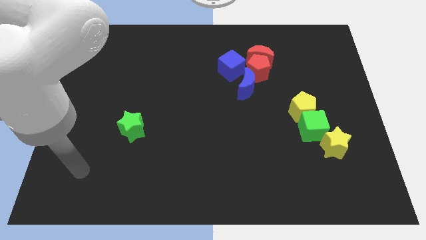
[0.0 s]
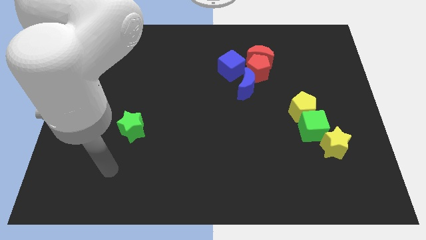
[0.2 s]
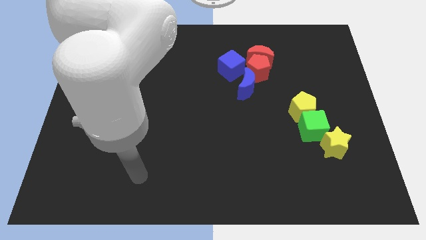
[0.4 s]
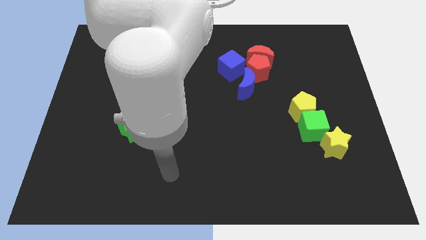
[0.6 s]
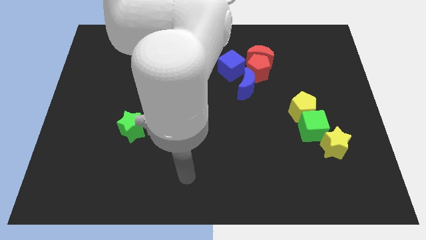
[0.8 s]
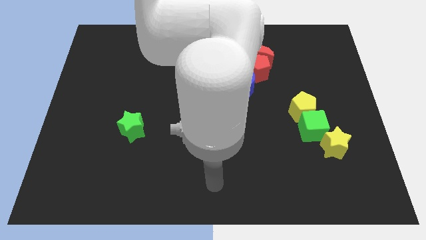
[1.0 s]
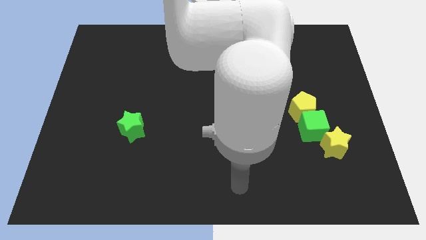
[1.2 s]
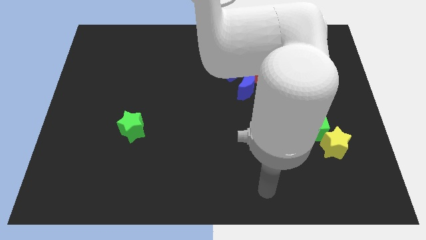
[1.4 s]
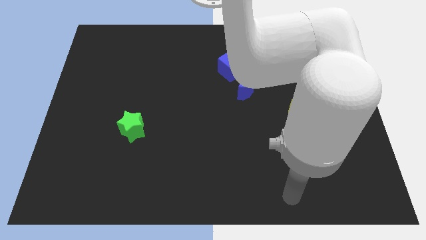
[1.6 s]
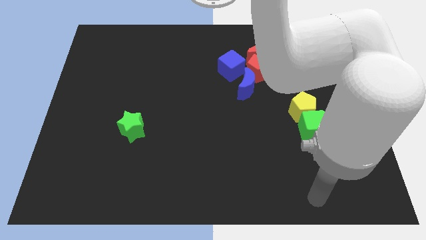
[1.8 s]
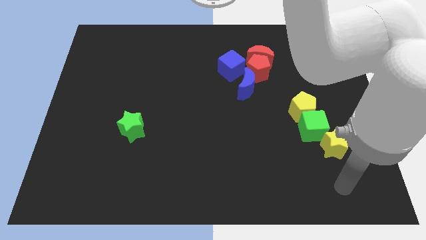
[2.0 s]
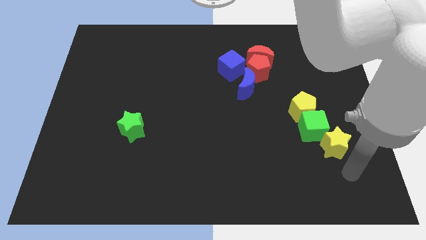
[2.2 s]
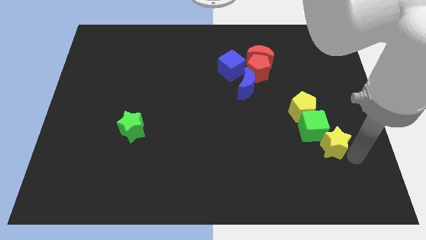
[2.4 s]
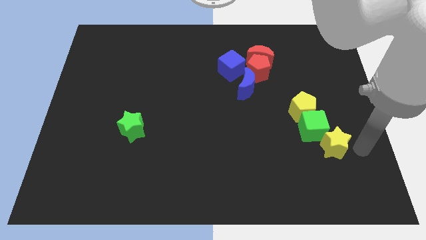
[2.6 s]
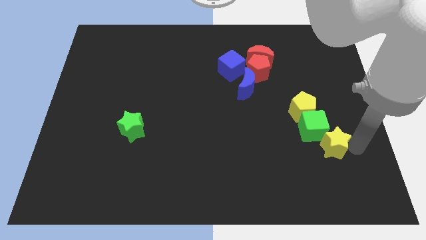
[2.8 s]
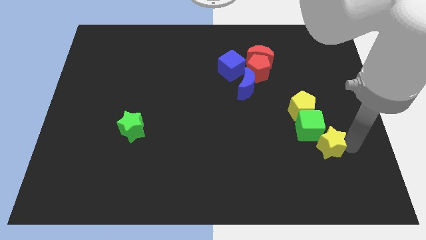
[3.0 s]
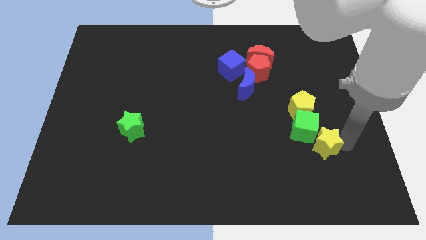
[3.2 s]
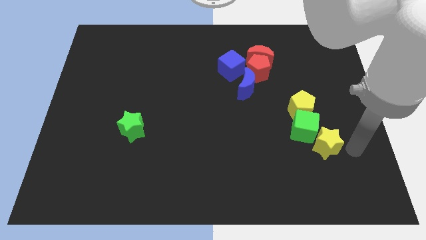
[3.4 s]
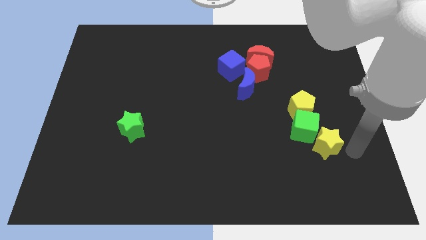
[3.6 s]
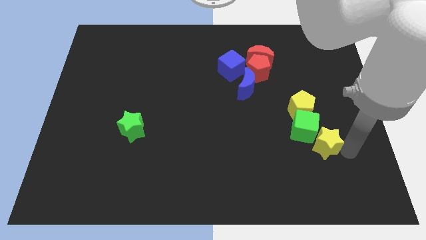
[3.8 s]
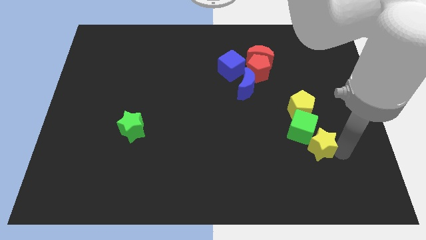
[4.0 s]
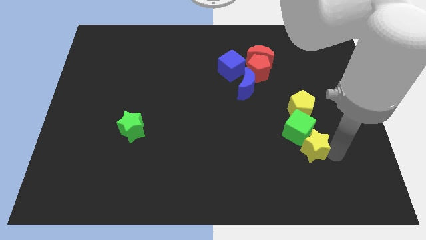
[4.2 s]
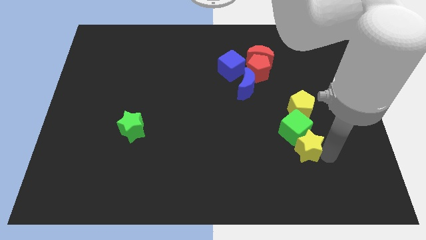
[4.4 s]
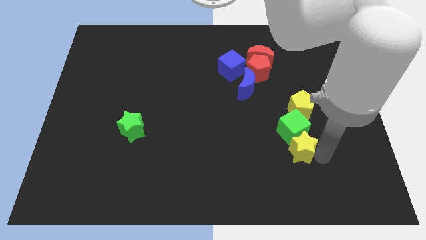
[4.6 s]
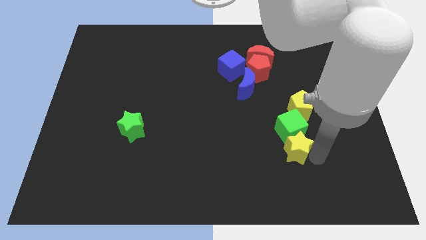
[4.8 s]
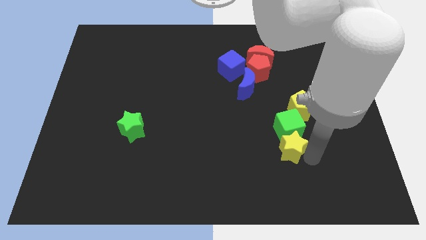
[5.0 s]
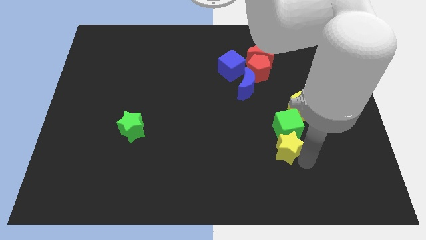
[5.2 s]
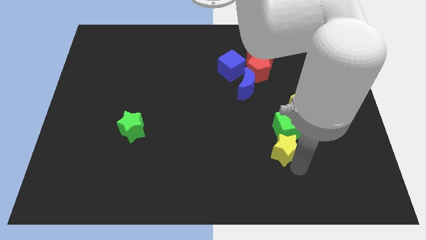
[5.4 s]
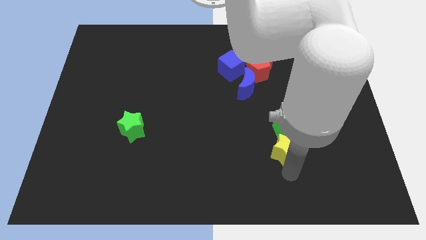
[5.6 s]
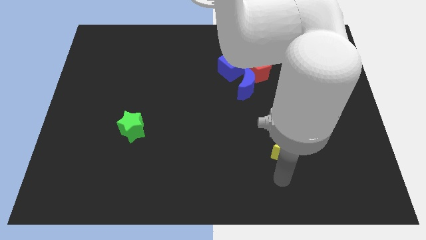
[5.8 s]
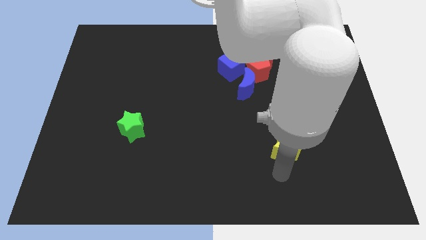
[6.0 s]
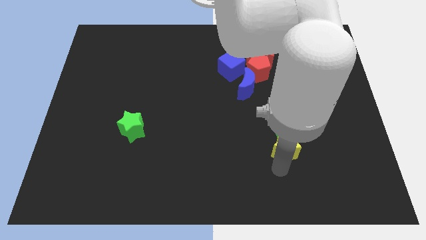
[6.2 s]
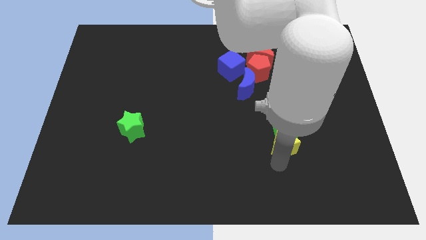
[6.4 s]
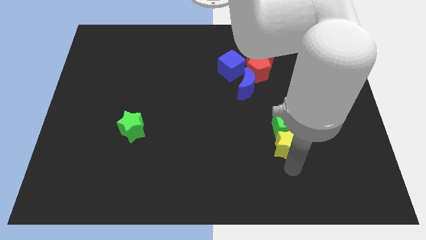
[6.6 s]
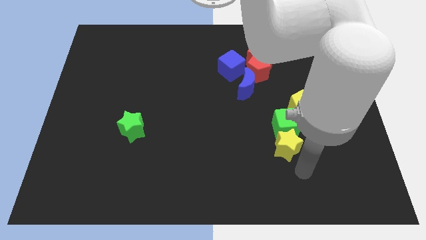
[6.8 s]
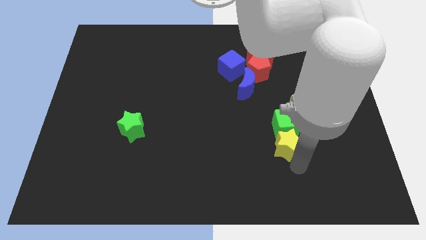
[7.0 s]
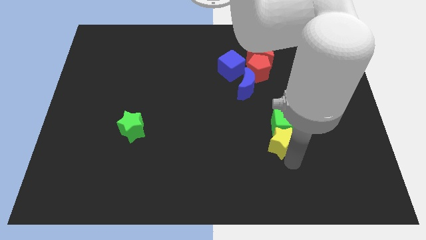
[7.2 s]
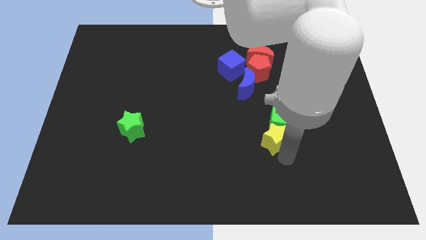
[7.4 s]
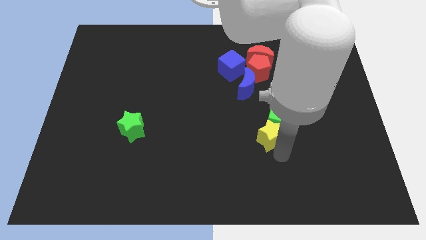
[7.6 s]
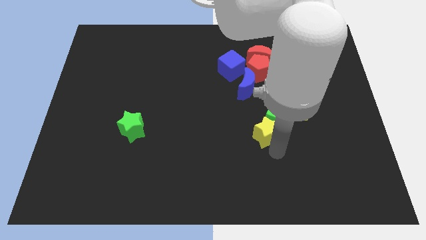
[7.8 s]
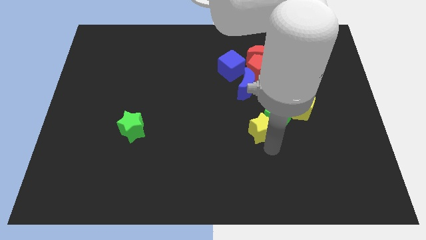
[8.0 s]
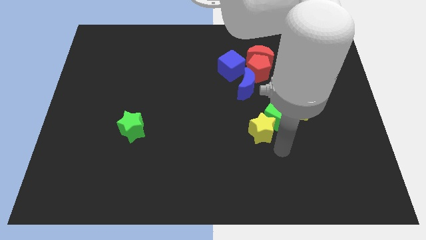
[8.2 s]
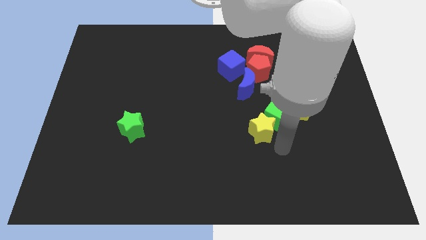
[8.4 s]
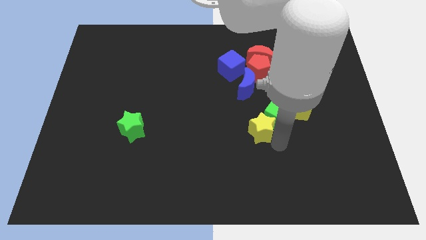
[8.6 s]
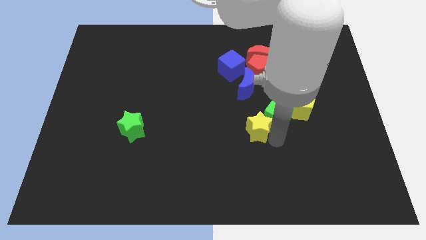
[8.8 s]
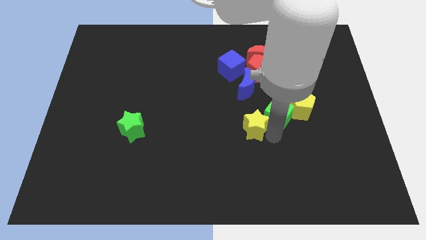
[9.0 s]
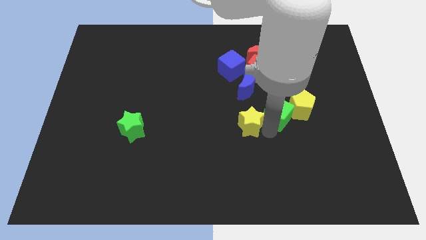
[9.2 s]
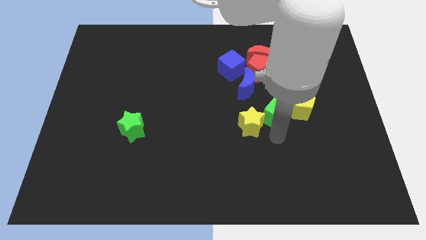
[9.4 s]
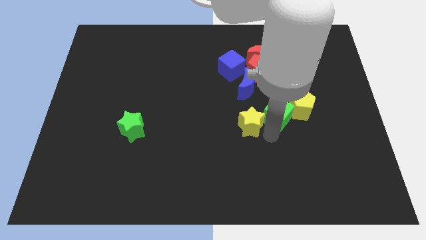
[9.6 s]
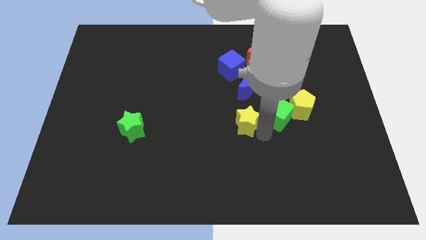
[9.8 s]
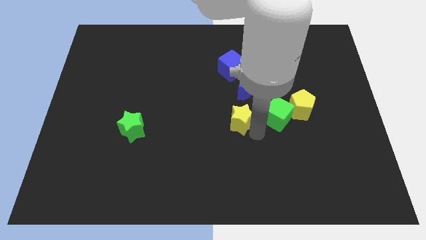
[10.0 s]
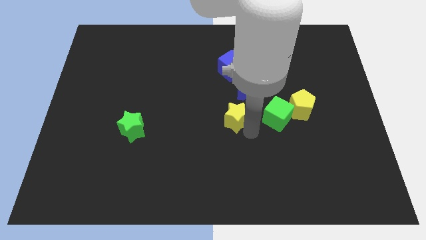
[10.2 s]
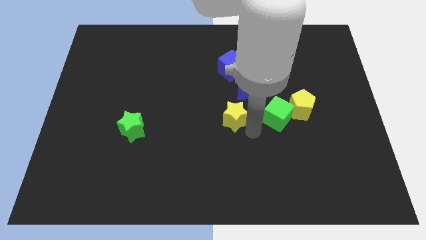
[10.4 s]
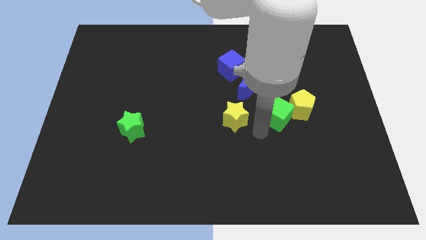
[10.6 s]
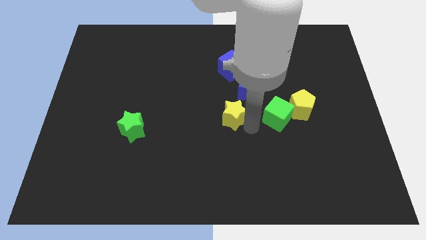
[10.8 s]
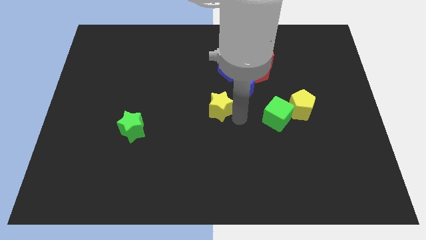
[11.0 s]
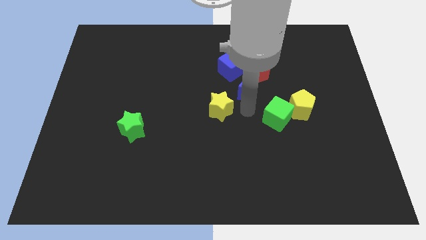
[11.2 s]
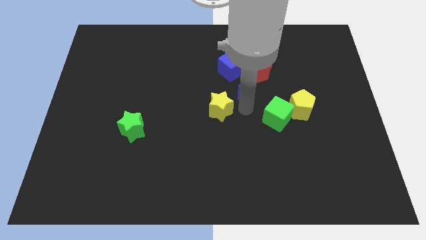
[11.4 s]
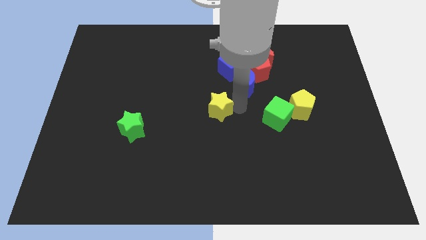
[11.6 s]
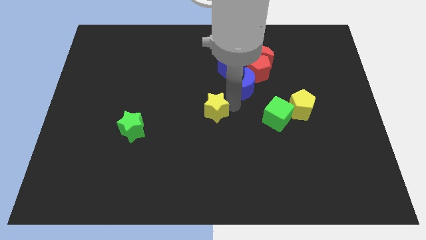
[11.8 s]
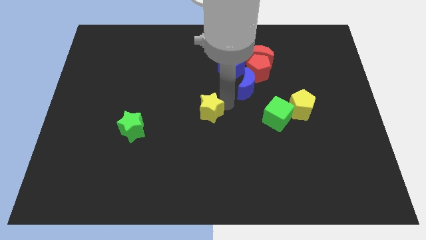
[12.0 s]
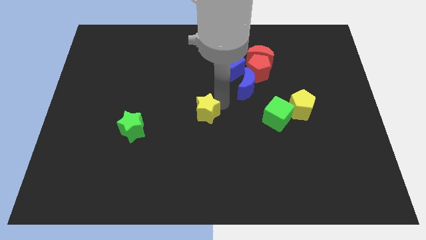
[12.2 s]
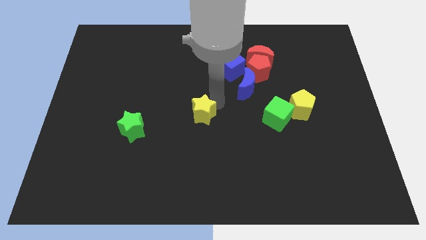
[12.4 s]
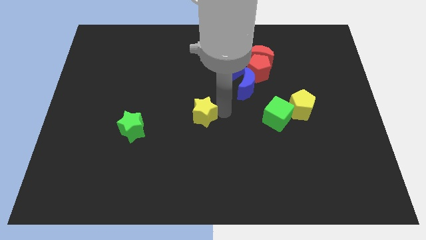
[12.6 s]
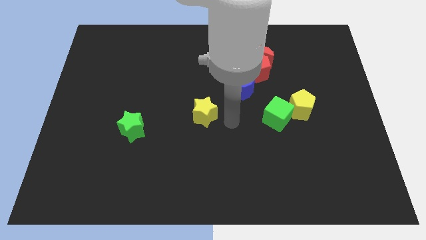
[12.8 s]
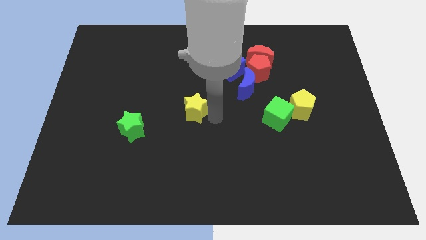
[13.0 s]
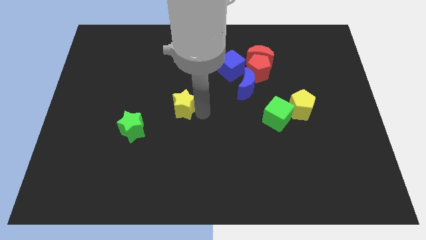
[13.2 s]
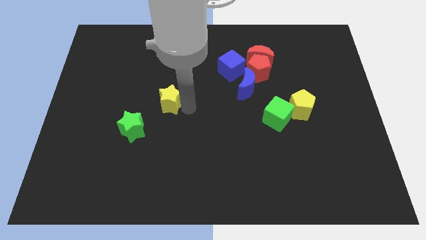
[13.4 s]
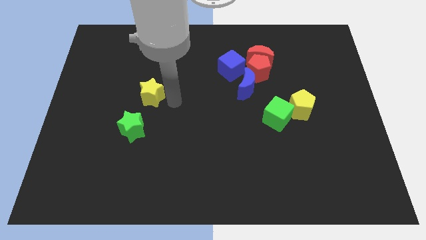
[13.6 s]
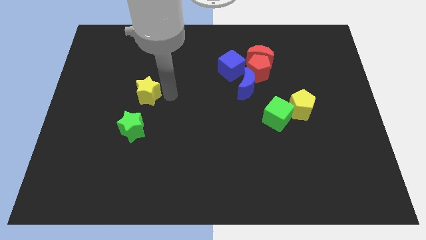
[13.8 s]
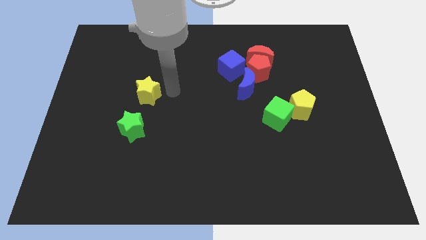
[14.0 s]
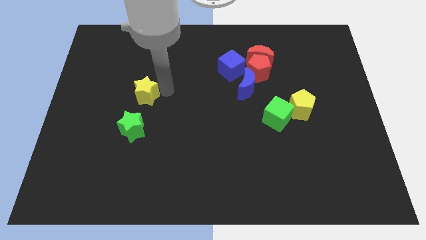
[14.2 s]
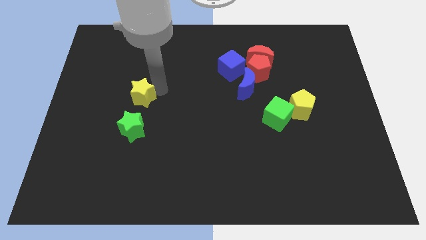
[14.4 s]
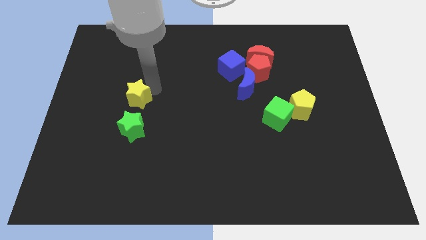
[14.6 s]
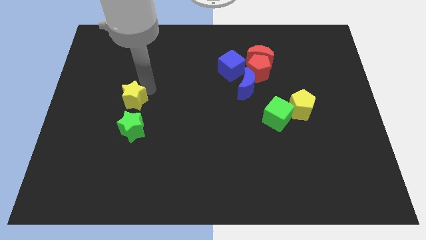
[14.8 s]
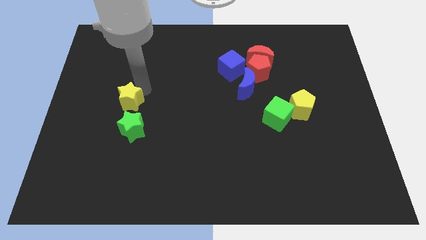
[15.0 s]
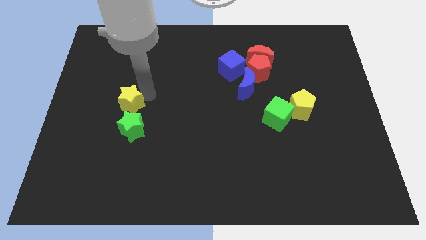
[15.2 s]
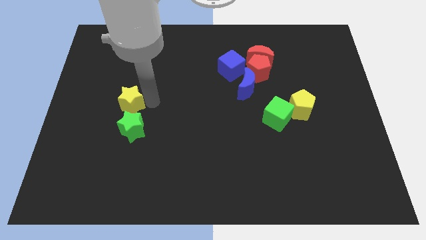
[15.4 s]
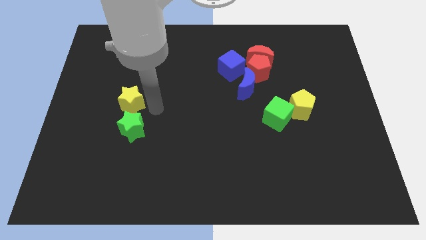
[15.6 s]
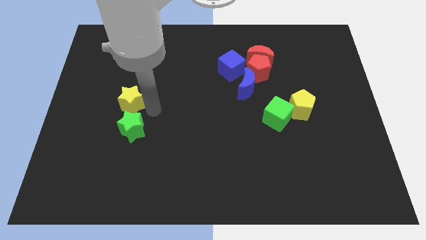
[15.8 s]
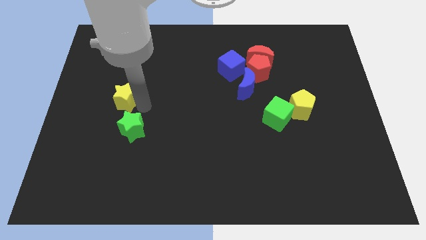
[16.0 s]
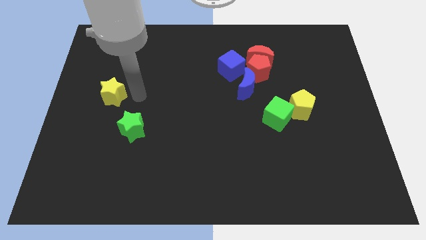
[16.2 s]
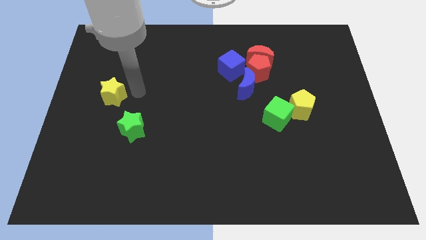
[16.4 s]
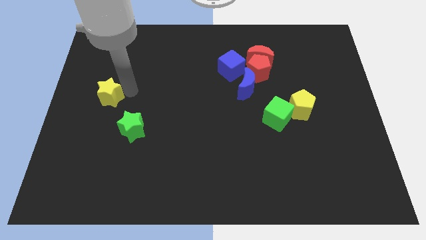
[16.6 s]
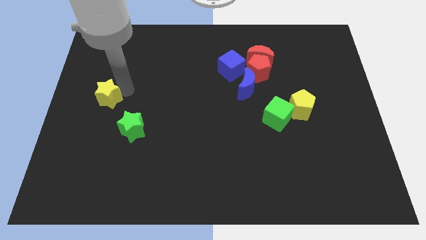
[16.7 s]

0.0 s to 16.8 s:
slide the yellow star to the center left
